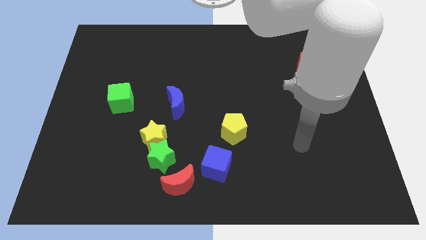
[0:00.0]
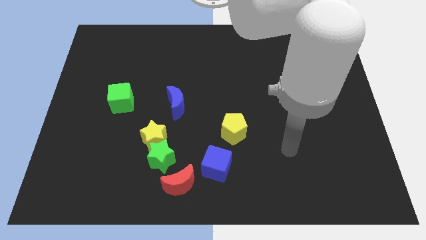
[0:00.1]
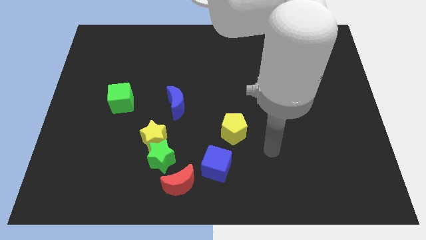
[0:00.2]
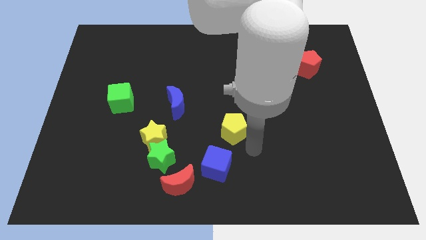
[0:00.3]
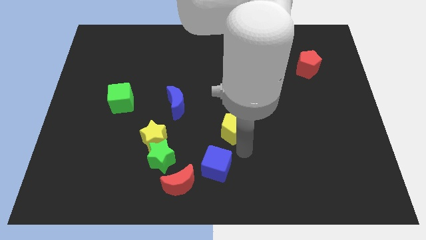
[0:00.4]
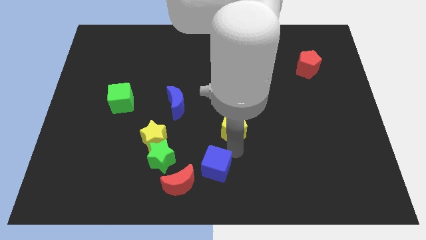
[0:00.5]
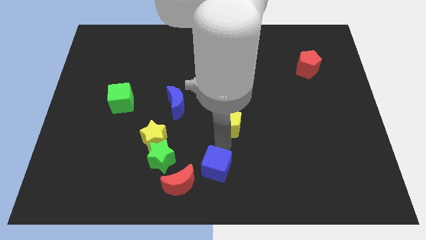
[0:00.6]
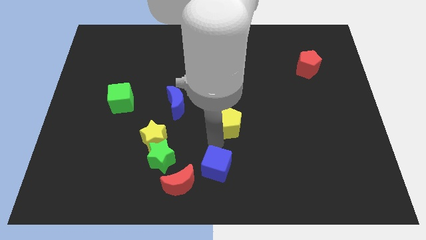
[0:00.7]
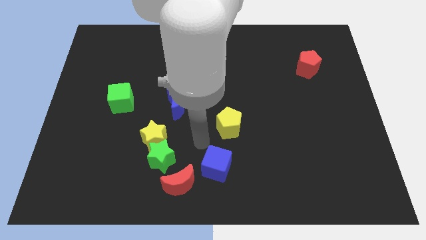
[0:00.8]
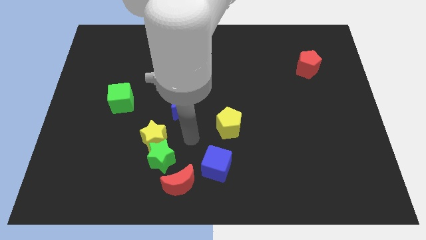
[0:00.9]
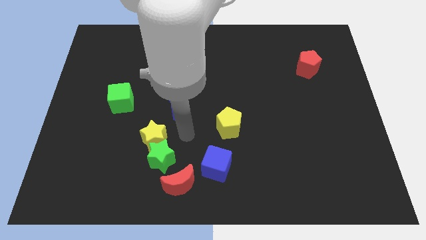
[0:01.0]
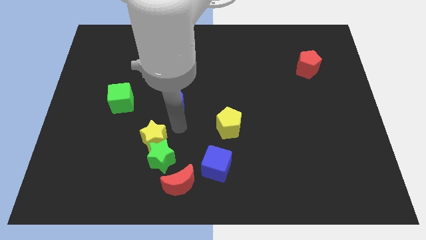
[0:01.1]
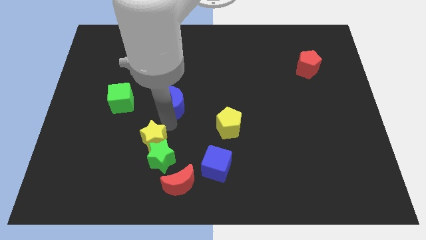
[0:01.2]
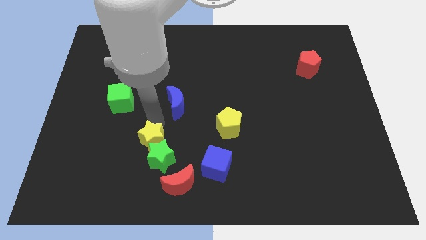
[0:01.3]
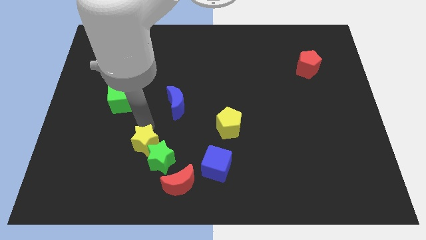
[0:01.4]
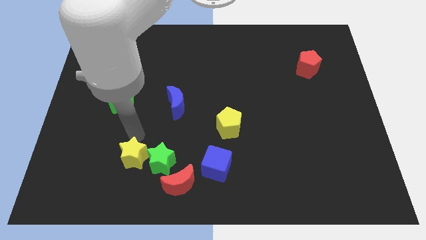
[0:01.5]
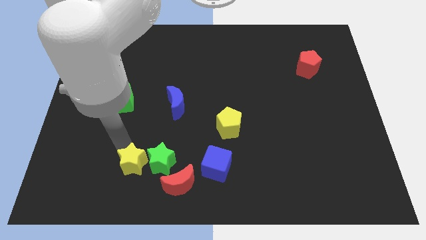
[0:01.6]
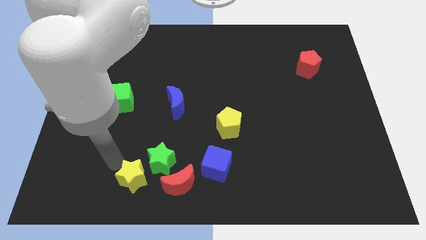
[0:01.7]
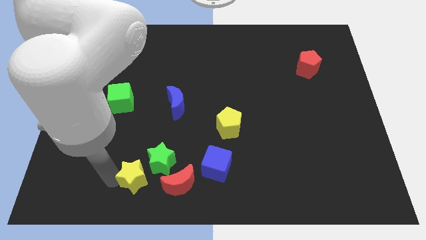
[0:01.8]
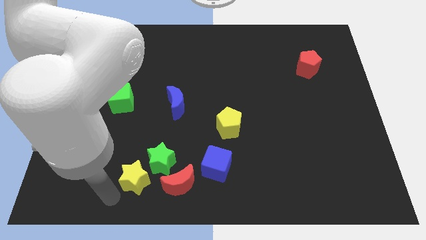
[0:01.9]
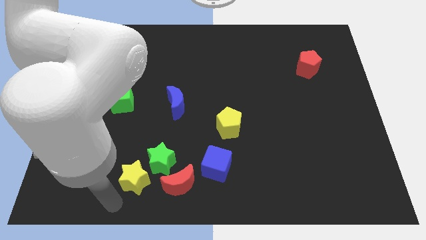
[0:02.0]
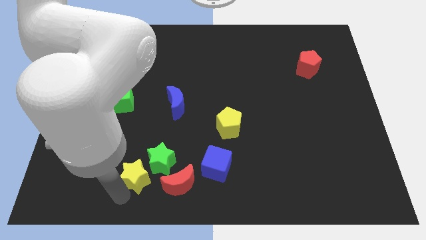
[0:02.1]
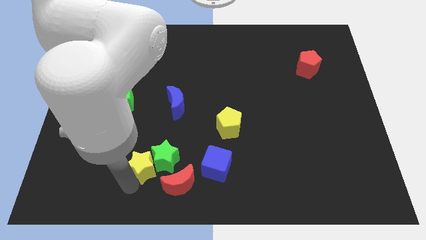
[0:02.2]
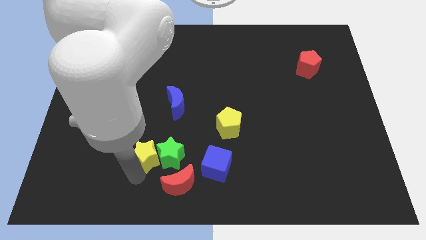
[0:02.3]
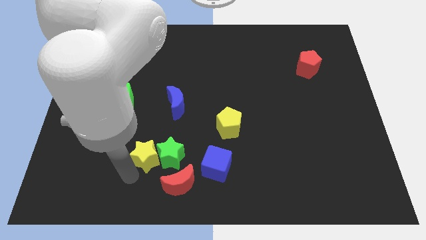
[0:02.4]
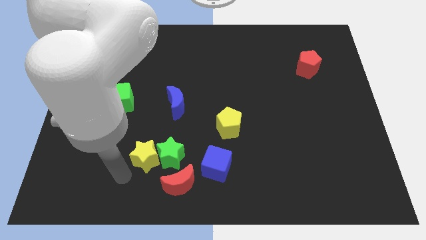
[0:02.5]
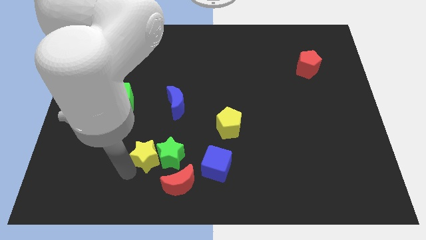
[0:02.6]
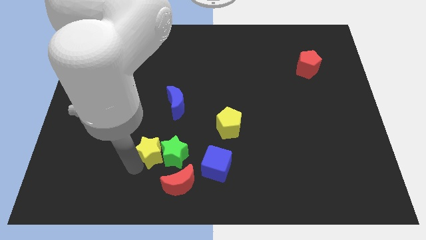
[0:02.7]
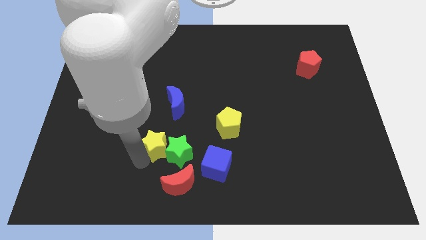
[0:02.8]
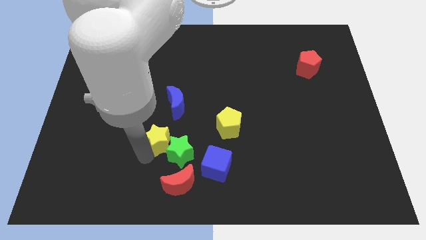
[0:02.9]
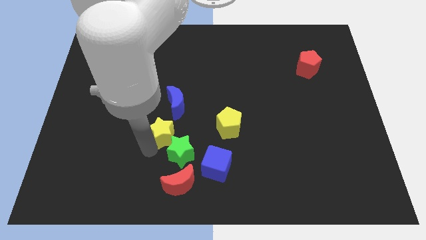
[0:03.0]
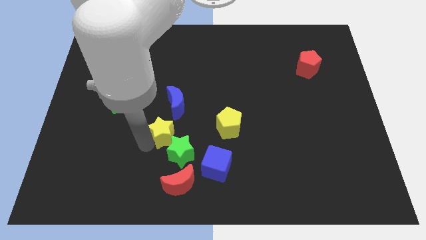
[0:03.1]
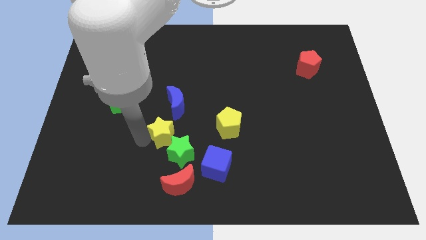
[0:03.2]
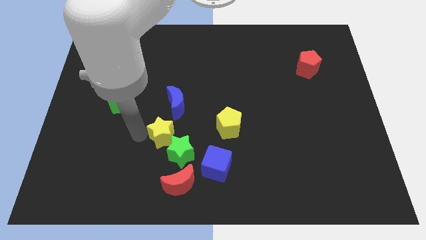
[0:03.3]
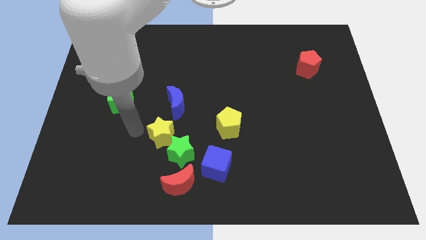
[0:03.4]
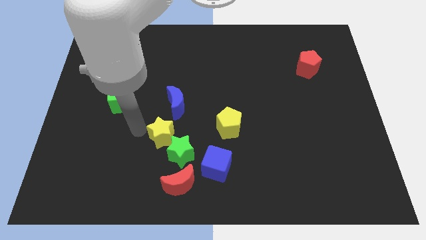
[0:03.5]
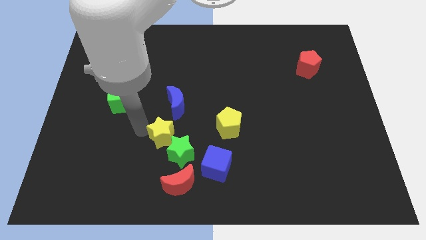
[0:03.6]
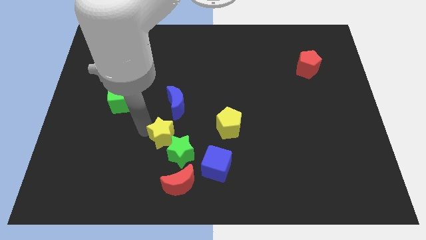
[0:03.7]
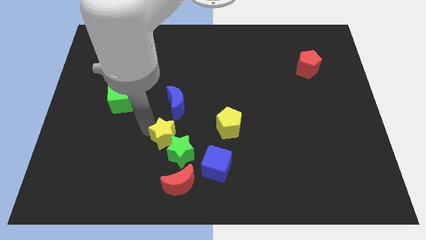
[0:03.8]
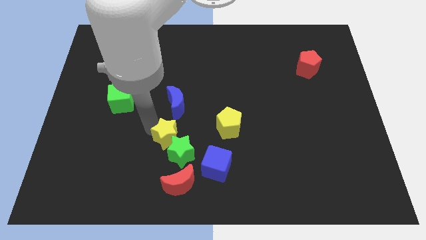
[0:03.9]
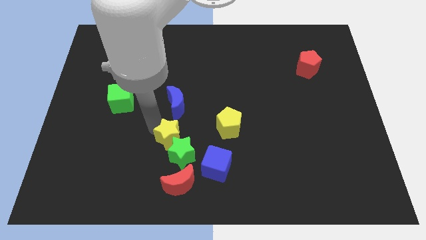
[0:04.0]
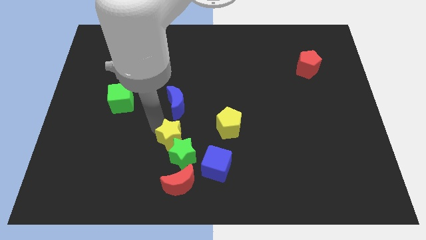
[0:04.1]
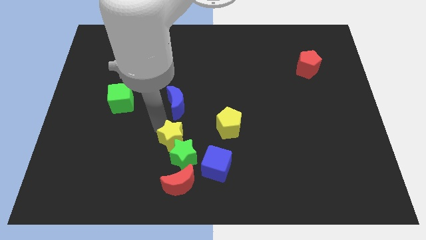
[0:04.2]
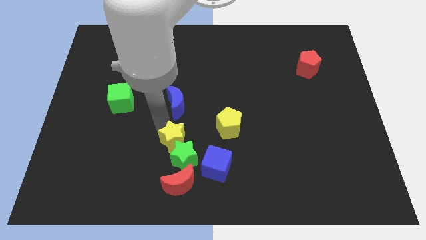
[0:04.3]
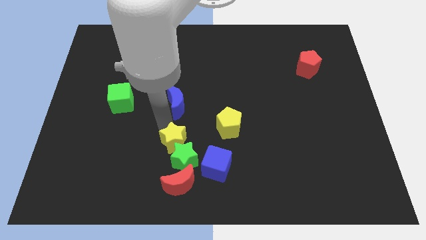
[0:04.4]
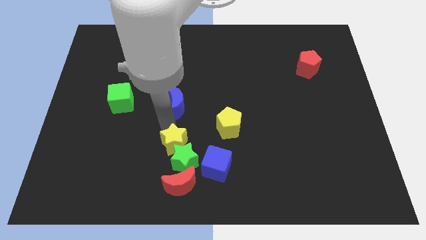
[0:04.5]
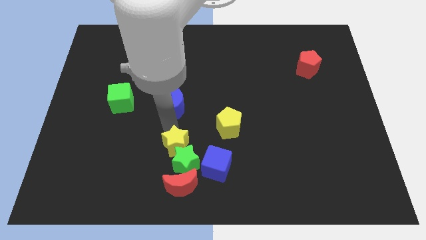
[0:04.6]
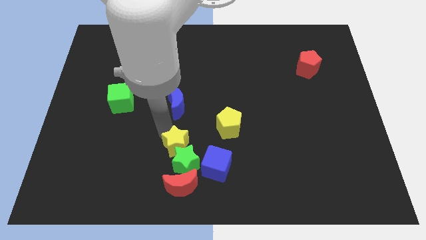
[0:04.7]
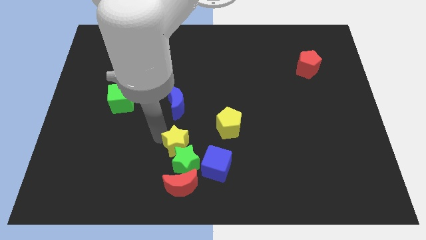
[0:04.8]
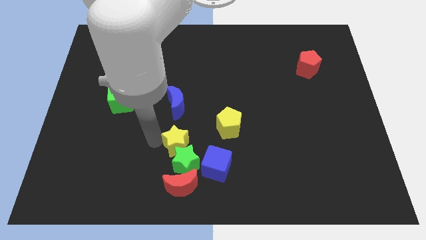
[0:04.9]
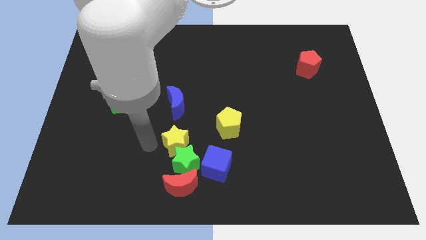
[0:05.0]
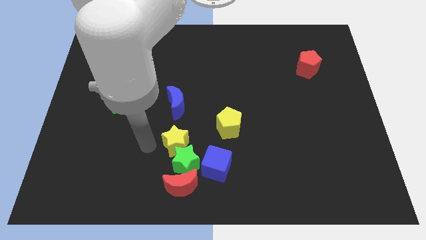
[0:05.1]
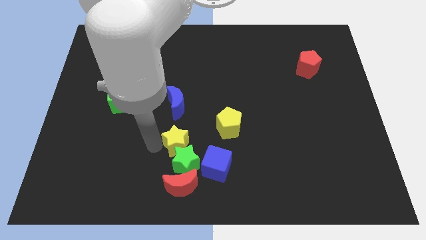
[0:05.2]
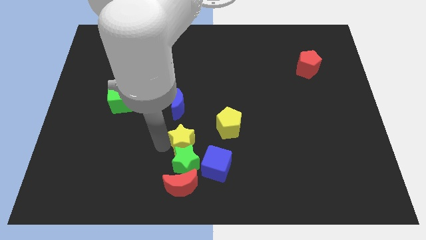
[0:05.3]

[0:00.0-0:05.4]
move the yellow star to the bottom left of the yellow pentagon
